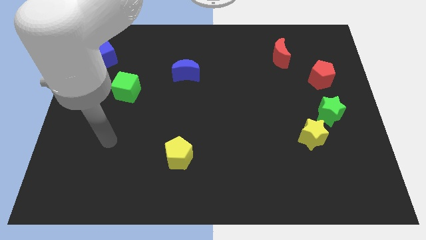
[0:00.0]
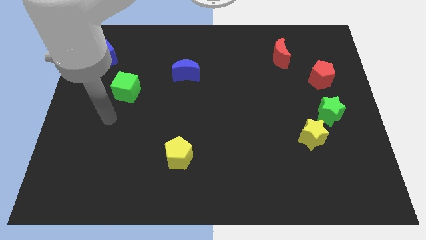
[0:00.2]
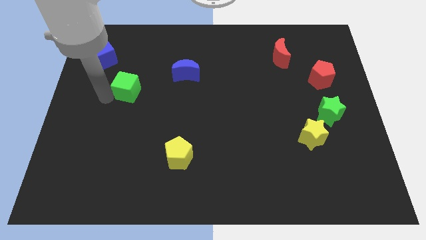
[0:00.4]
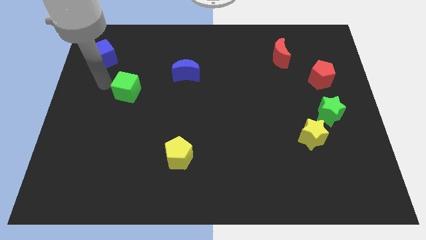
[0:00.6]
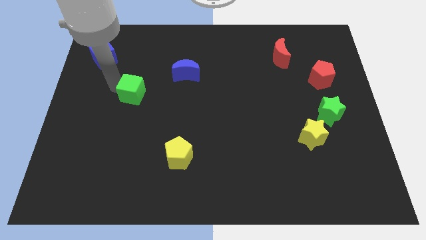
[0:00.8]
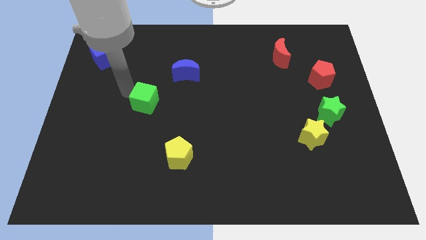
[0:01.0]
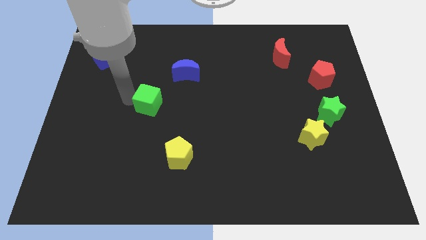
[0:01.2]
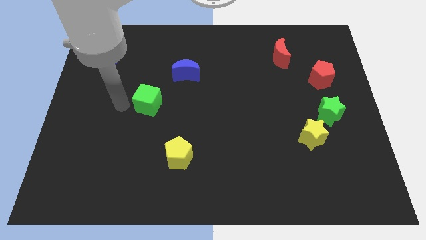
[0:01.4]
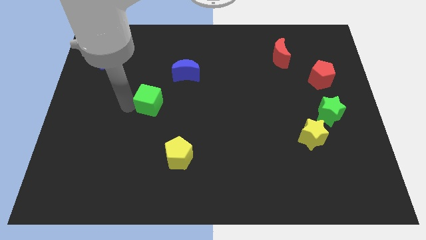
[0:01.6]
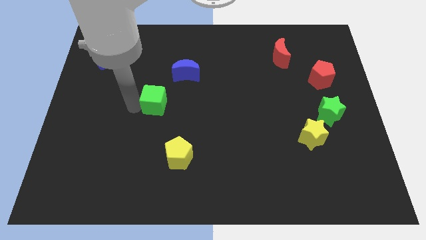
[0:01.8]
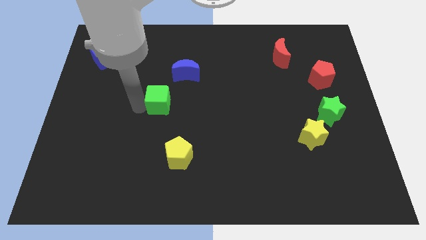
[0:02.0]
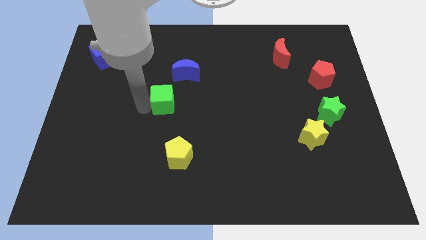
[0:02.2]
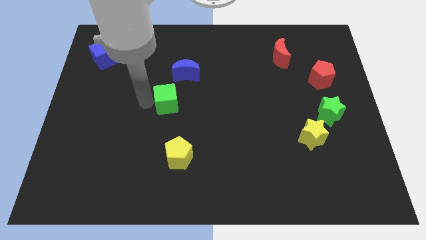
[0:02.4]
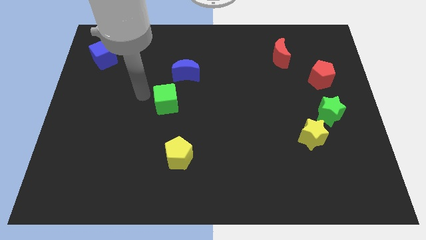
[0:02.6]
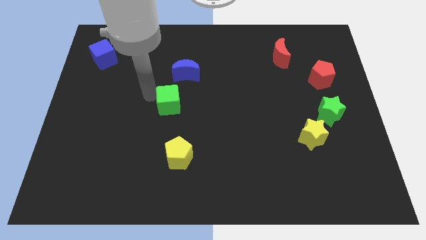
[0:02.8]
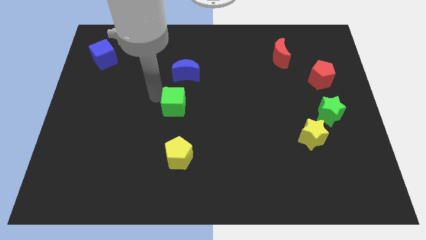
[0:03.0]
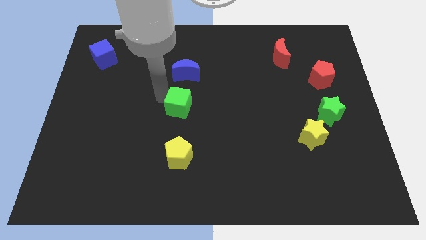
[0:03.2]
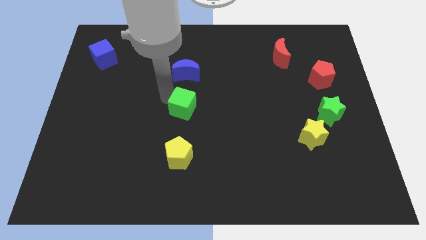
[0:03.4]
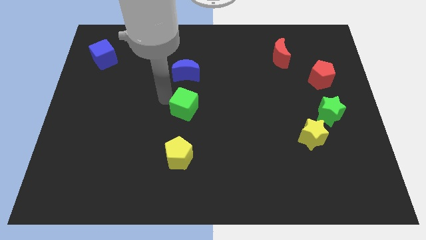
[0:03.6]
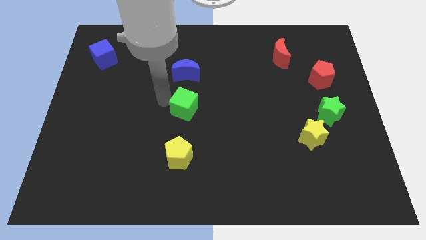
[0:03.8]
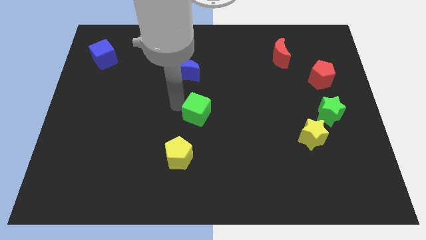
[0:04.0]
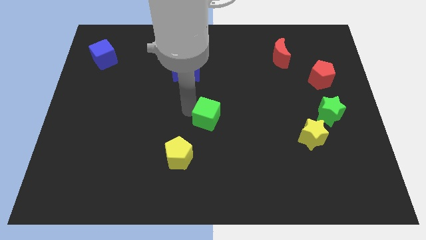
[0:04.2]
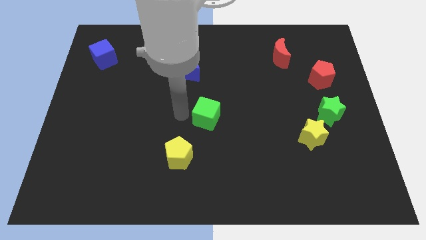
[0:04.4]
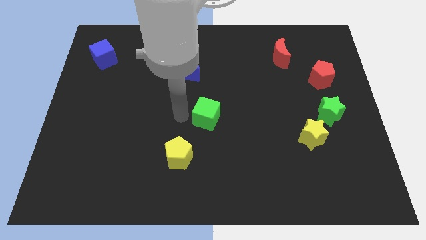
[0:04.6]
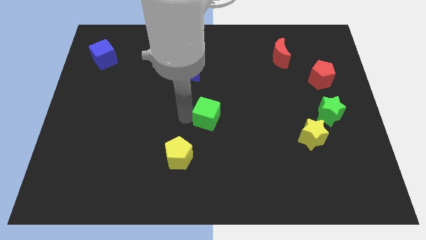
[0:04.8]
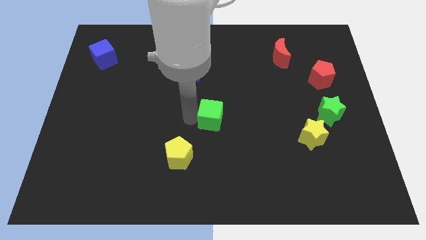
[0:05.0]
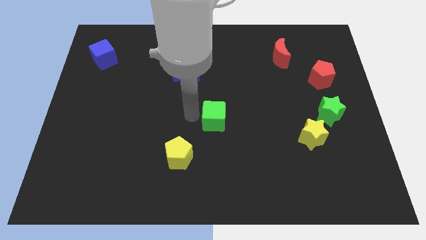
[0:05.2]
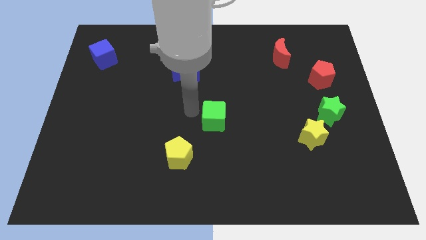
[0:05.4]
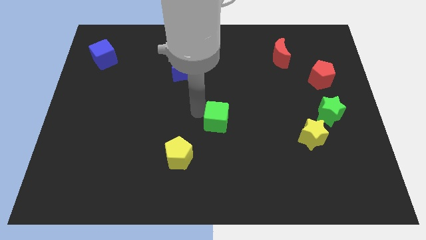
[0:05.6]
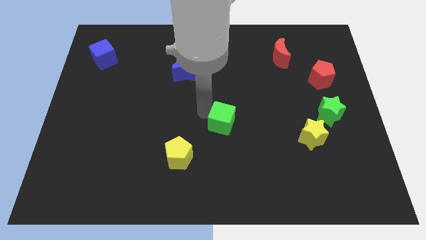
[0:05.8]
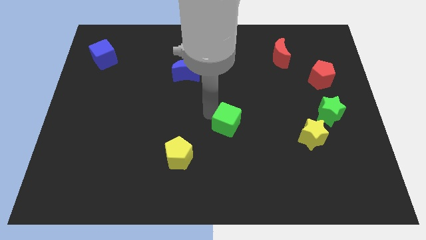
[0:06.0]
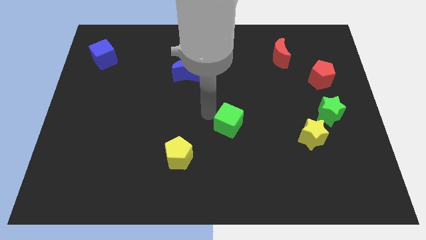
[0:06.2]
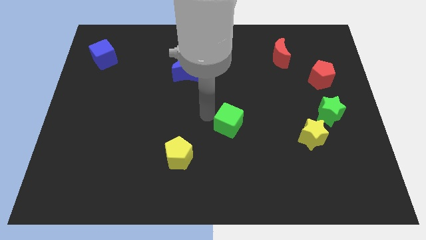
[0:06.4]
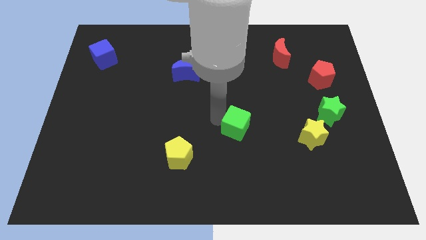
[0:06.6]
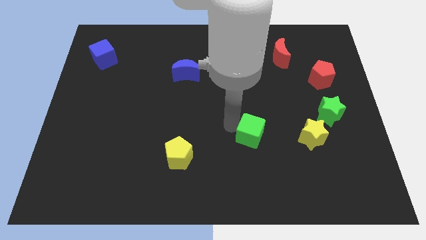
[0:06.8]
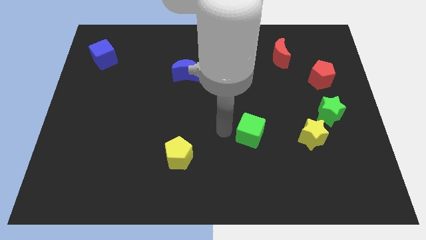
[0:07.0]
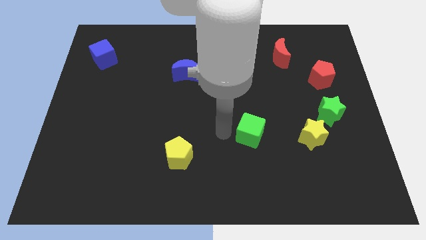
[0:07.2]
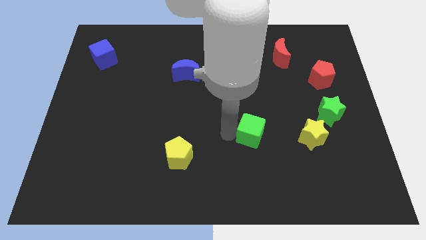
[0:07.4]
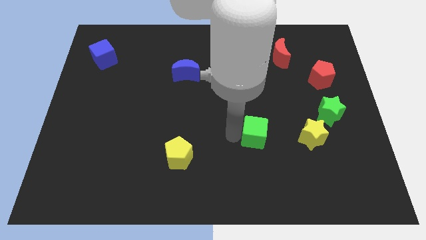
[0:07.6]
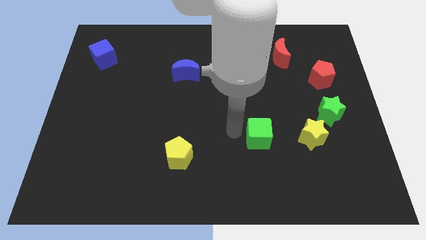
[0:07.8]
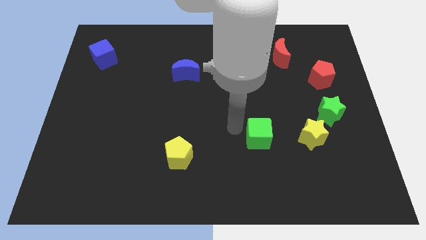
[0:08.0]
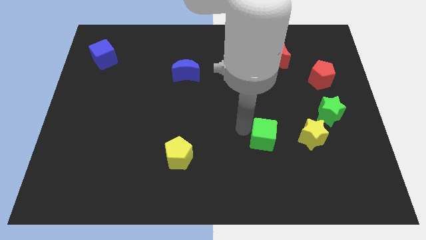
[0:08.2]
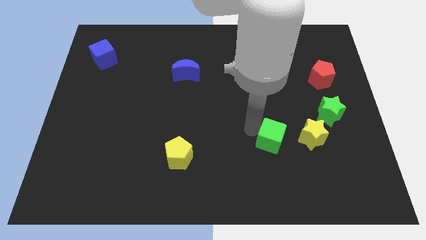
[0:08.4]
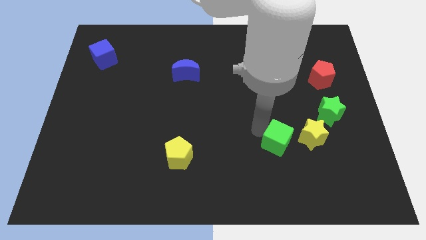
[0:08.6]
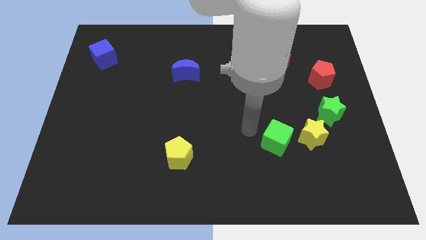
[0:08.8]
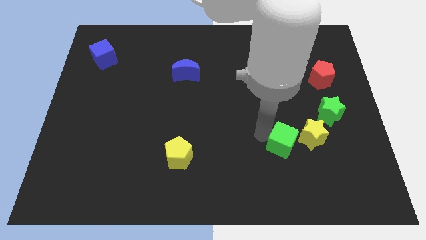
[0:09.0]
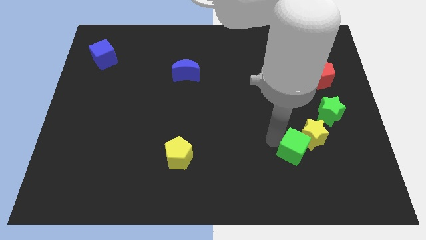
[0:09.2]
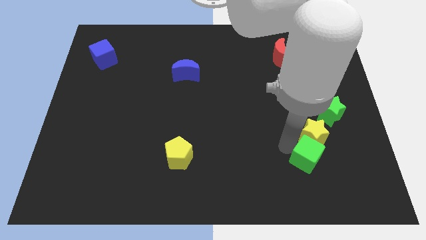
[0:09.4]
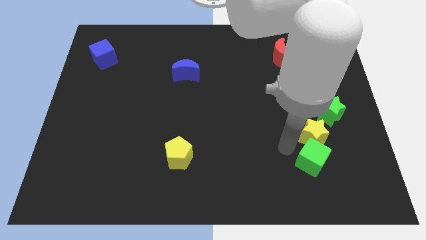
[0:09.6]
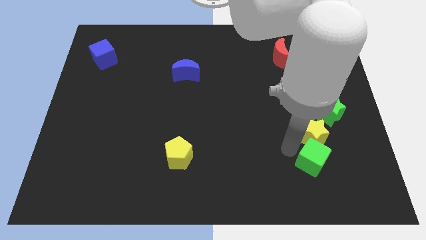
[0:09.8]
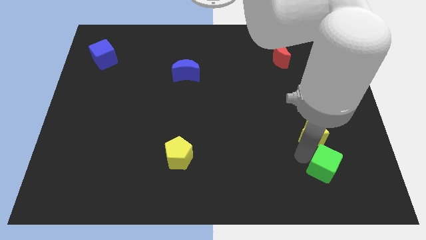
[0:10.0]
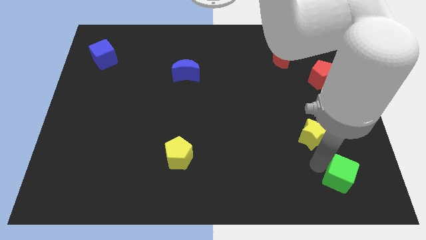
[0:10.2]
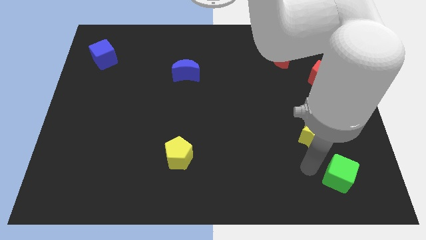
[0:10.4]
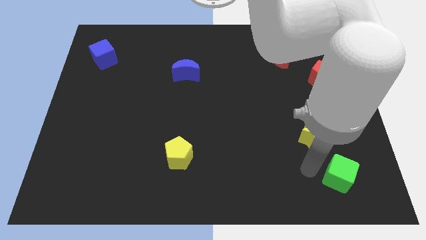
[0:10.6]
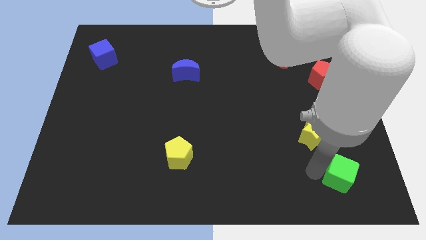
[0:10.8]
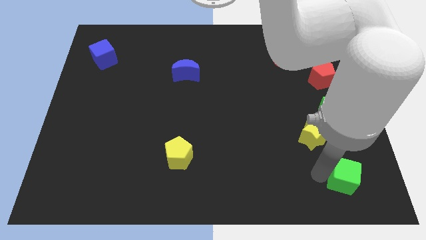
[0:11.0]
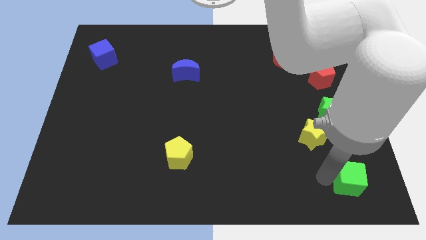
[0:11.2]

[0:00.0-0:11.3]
slide the green cube to the bottom right of the board
